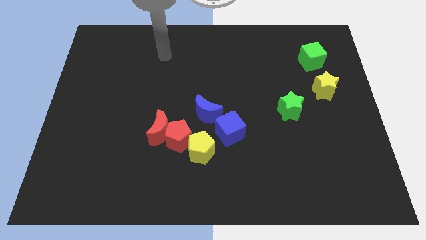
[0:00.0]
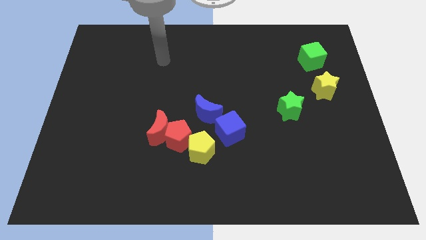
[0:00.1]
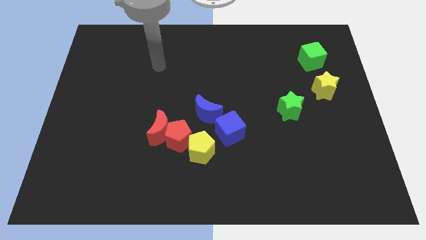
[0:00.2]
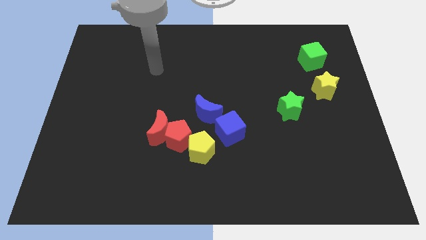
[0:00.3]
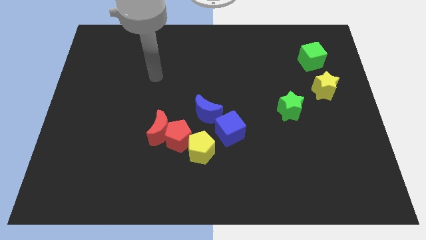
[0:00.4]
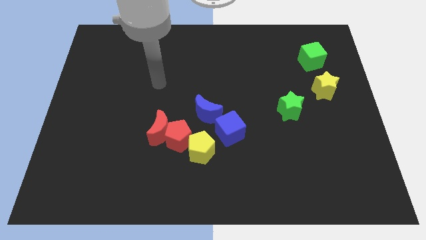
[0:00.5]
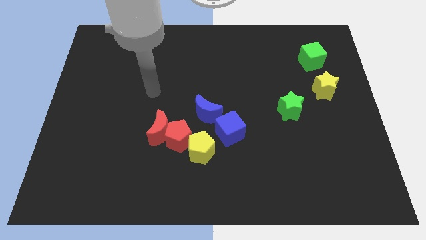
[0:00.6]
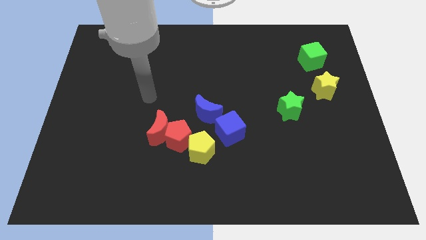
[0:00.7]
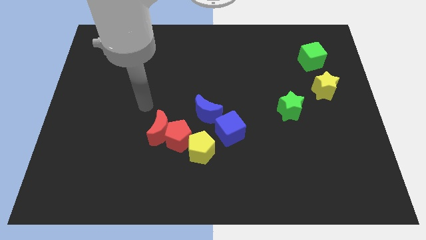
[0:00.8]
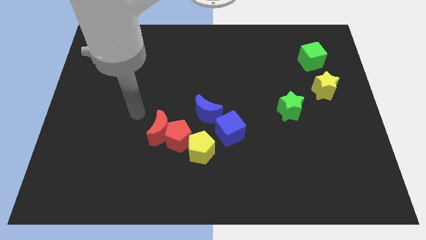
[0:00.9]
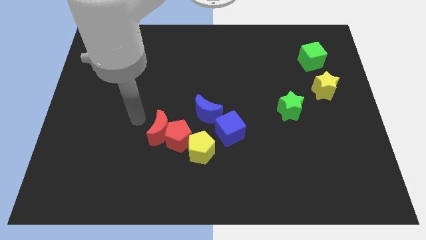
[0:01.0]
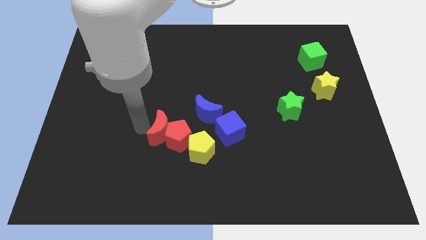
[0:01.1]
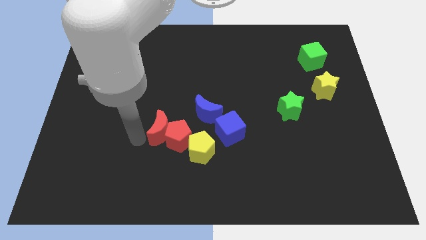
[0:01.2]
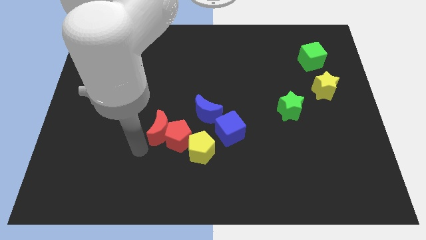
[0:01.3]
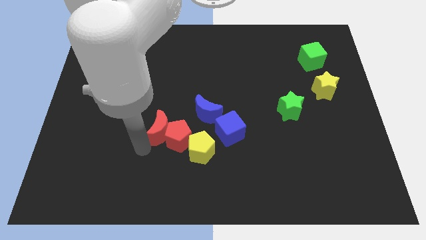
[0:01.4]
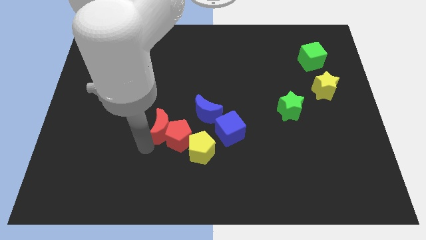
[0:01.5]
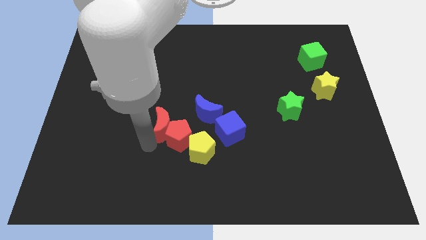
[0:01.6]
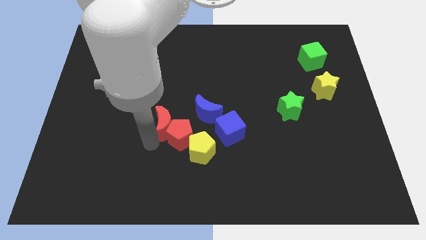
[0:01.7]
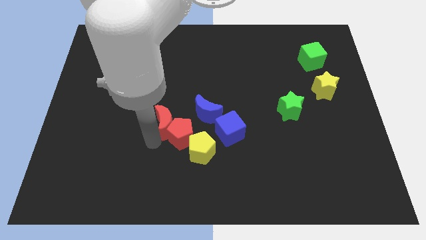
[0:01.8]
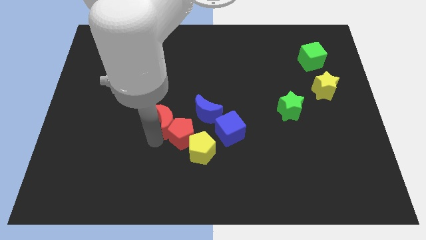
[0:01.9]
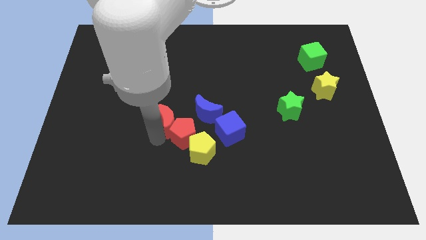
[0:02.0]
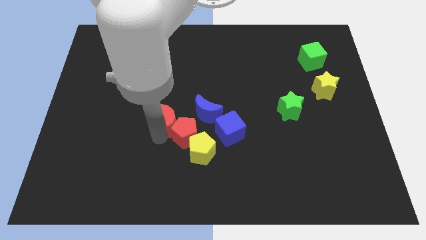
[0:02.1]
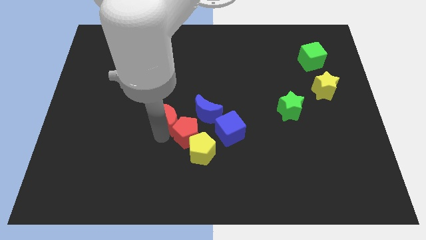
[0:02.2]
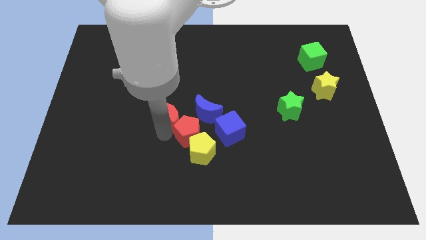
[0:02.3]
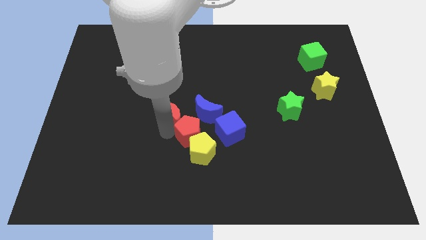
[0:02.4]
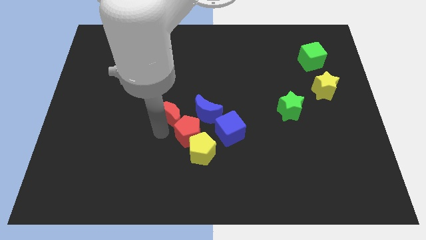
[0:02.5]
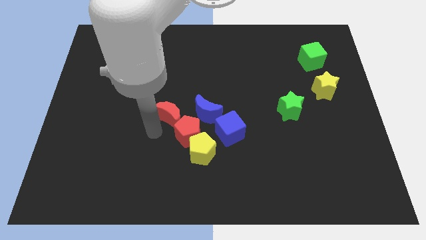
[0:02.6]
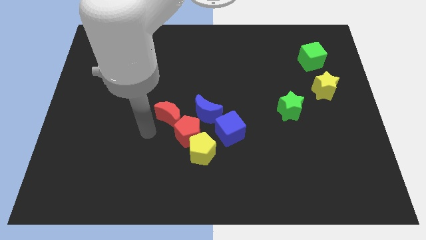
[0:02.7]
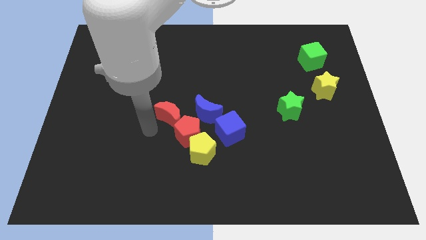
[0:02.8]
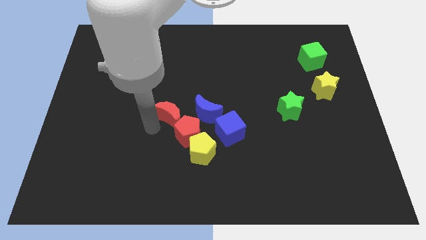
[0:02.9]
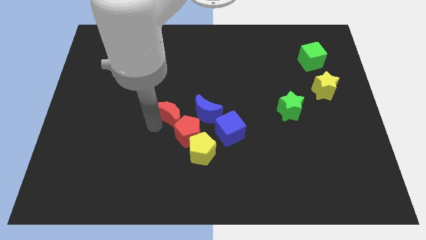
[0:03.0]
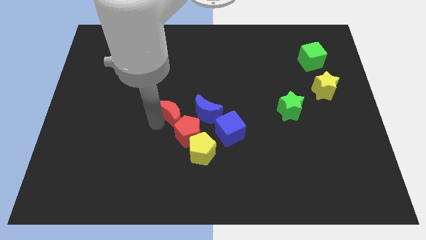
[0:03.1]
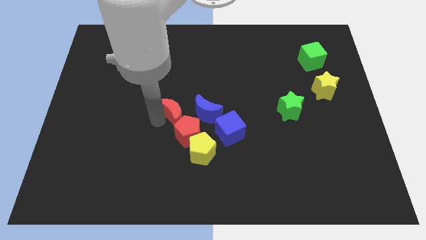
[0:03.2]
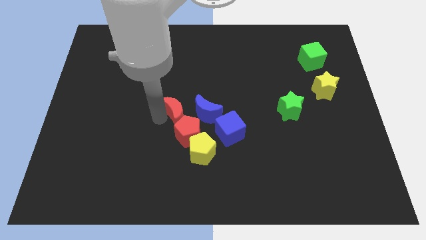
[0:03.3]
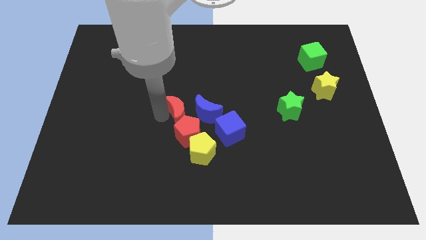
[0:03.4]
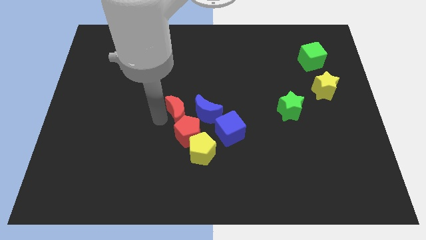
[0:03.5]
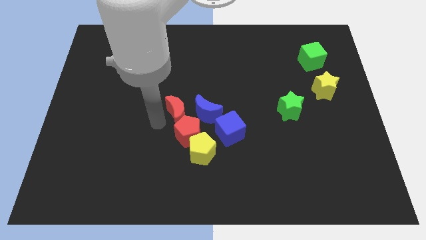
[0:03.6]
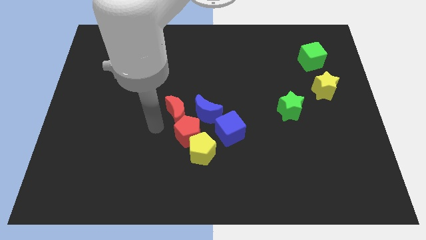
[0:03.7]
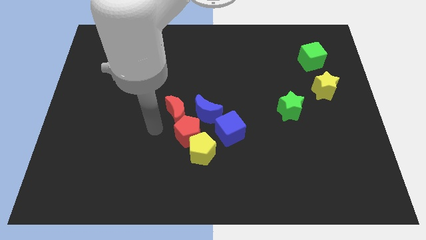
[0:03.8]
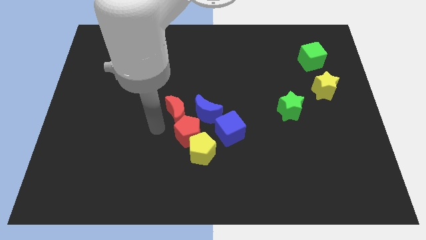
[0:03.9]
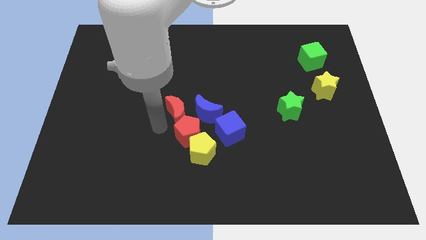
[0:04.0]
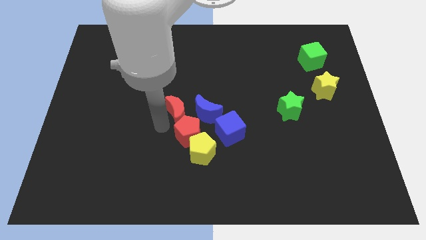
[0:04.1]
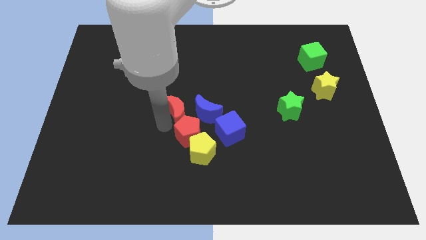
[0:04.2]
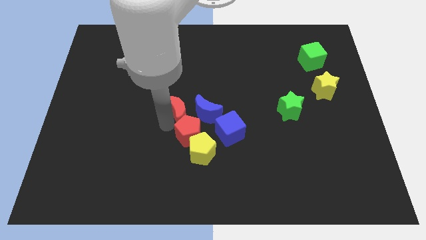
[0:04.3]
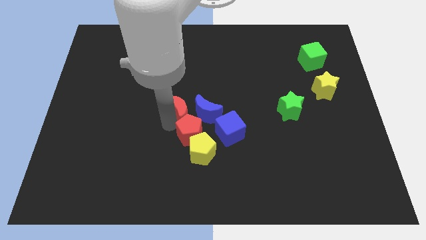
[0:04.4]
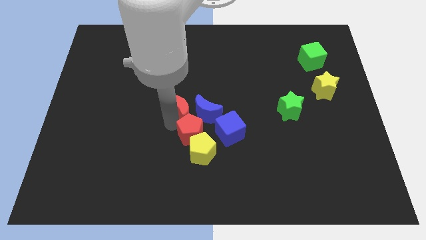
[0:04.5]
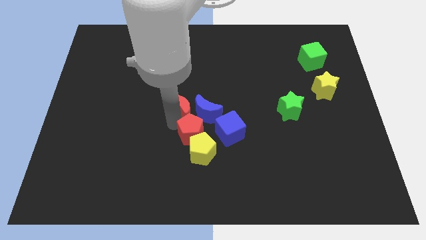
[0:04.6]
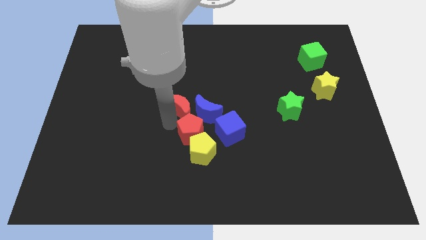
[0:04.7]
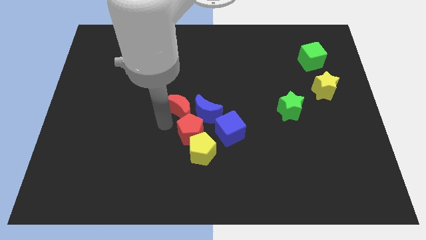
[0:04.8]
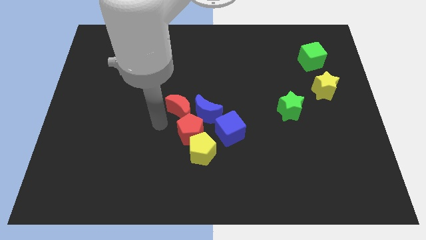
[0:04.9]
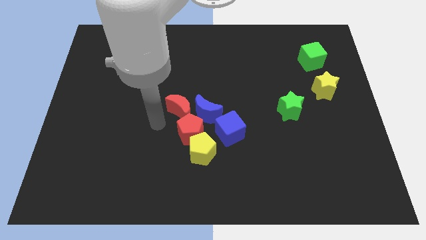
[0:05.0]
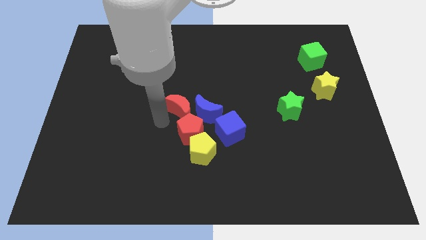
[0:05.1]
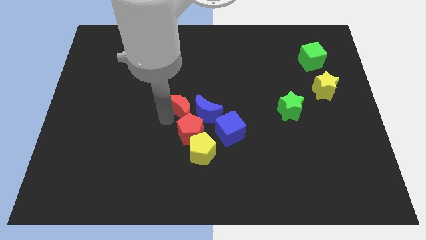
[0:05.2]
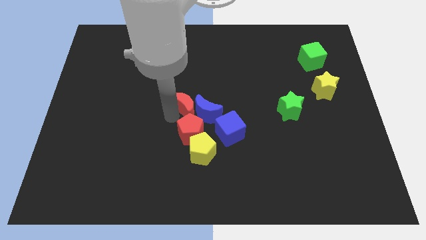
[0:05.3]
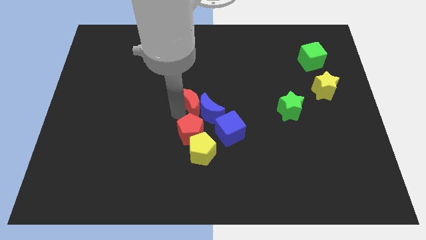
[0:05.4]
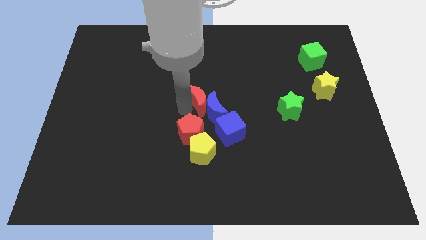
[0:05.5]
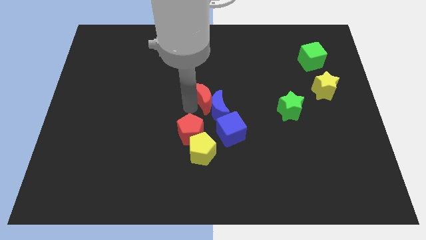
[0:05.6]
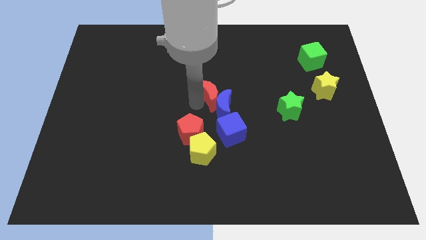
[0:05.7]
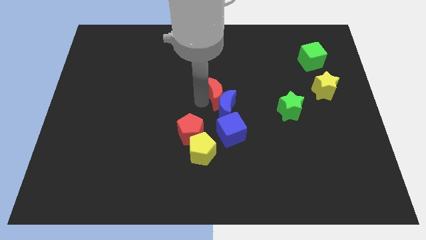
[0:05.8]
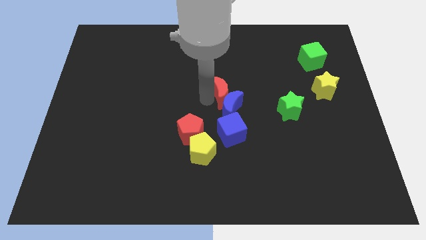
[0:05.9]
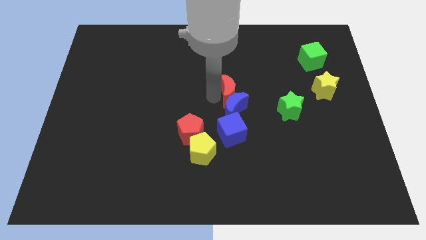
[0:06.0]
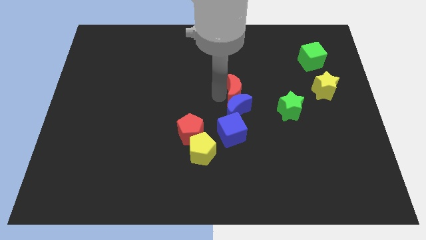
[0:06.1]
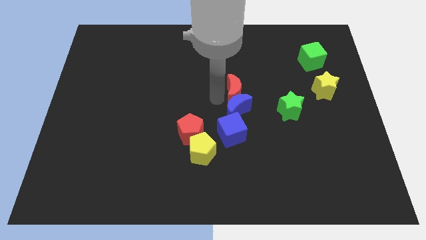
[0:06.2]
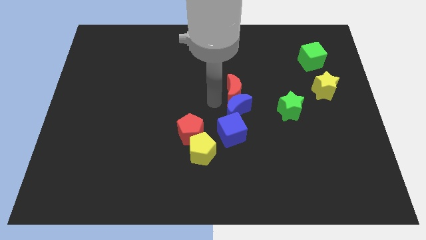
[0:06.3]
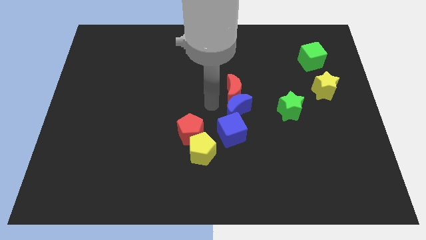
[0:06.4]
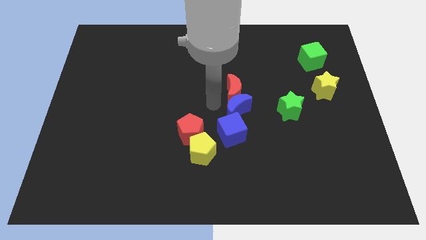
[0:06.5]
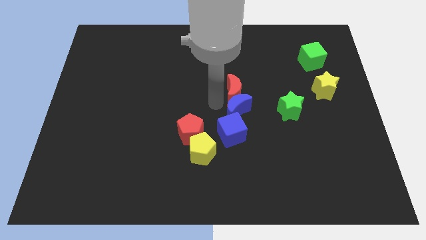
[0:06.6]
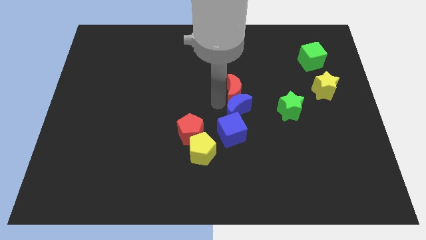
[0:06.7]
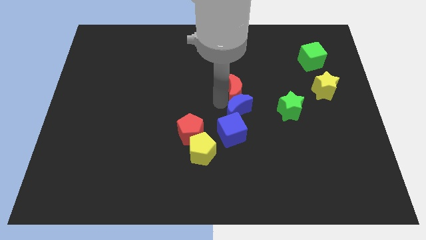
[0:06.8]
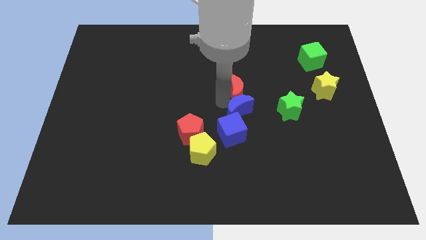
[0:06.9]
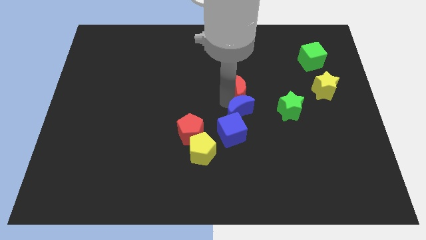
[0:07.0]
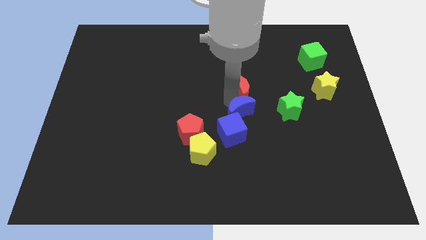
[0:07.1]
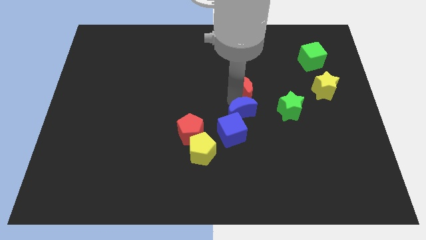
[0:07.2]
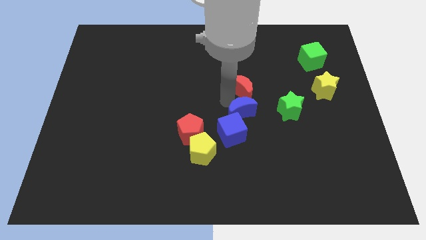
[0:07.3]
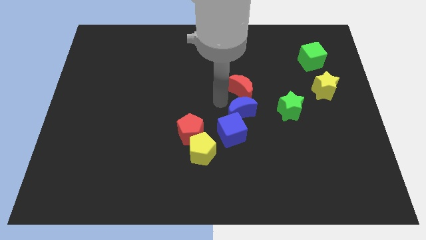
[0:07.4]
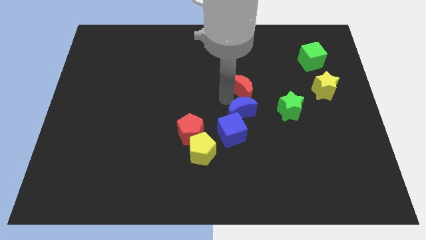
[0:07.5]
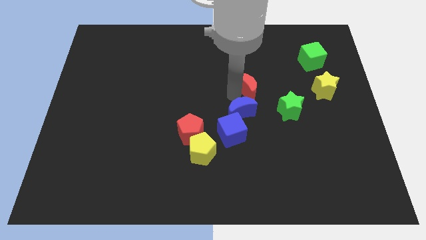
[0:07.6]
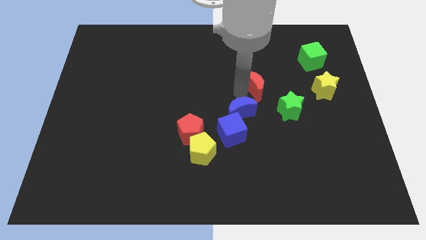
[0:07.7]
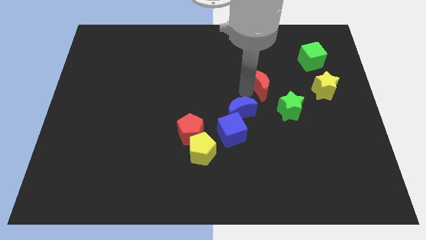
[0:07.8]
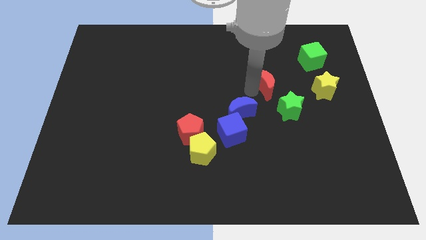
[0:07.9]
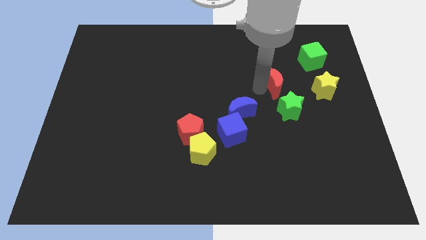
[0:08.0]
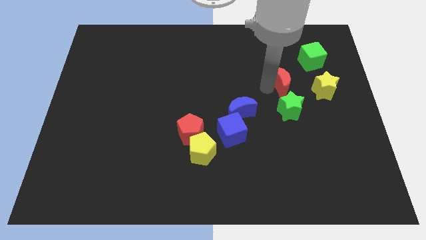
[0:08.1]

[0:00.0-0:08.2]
move the red moon diagonally down and to the left of the green cube
